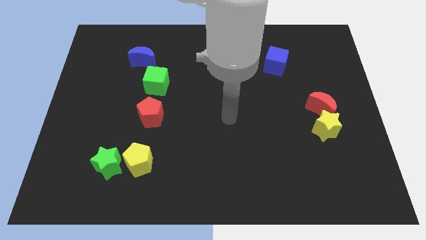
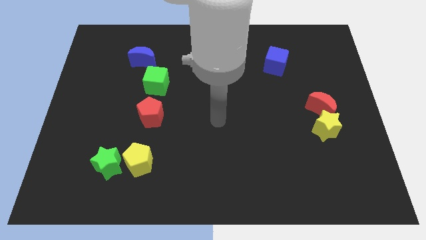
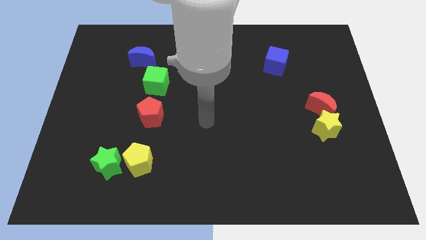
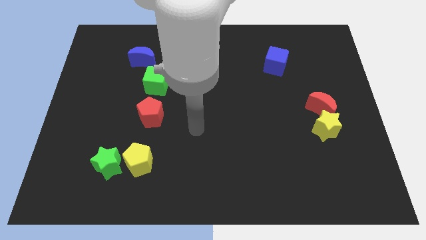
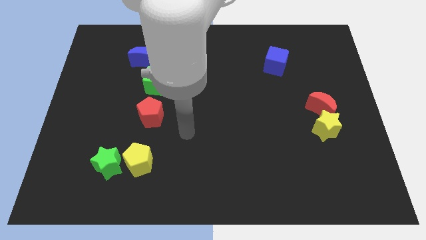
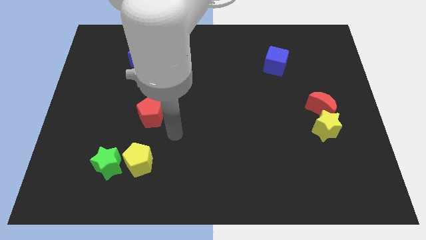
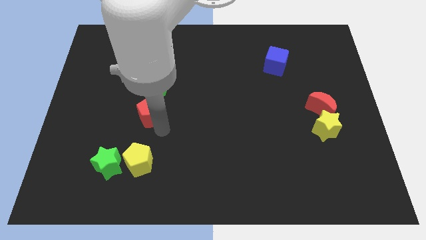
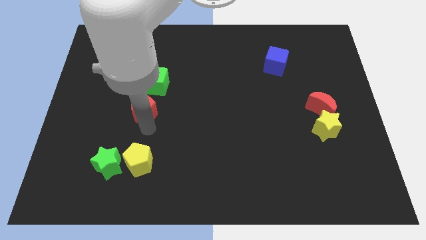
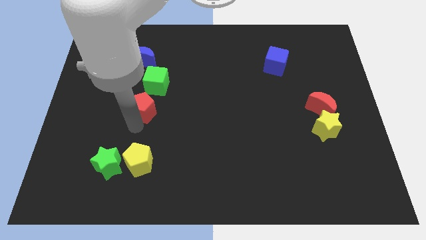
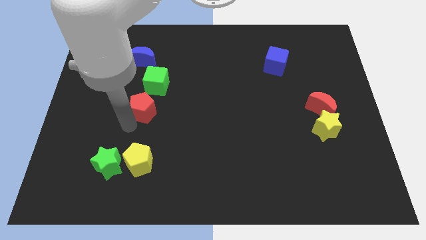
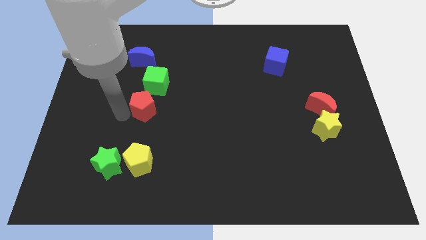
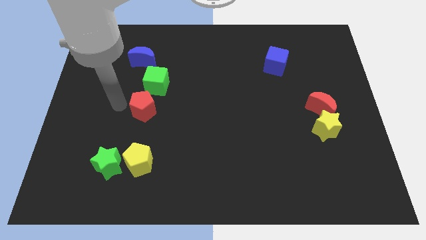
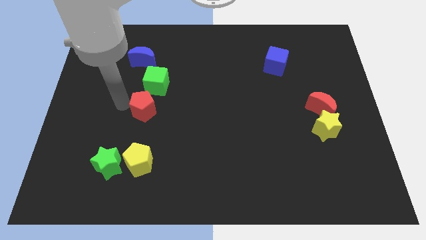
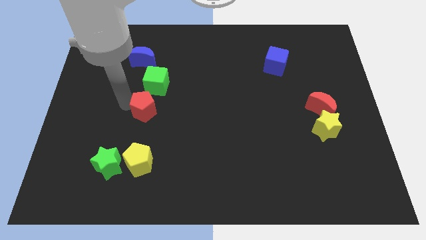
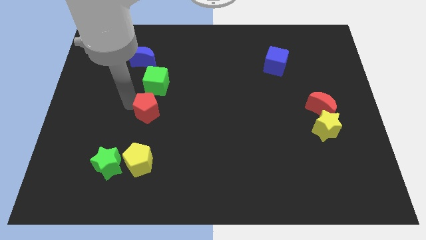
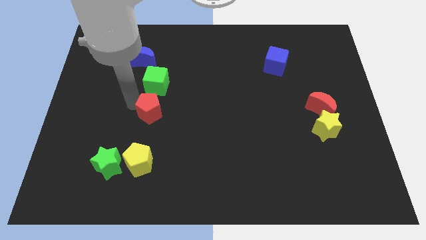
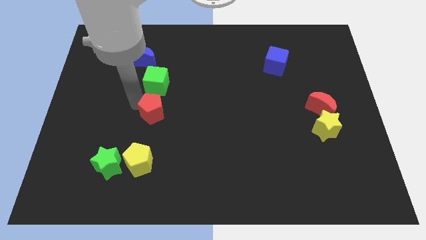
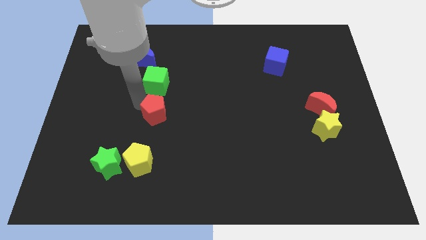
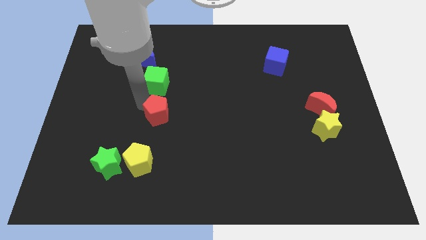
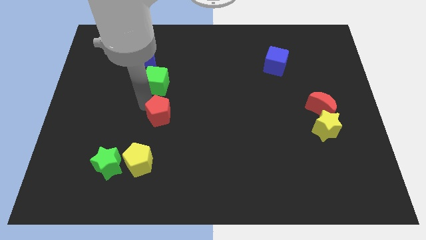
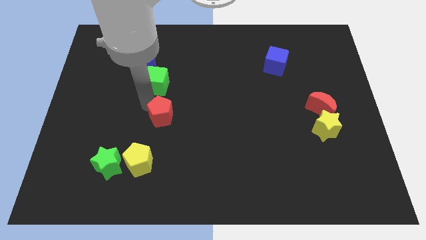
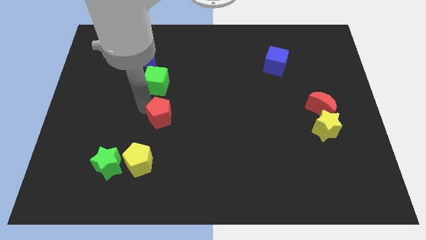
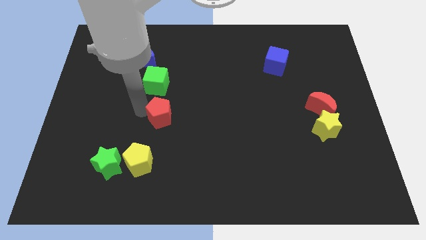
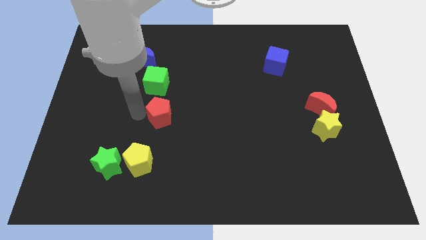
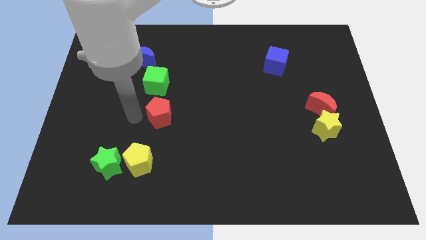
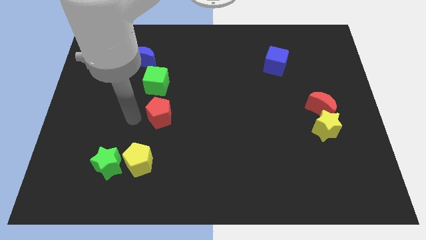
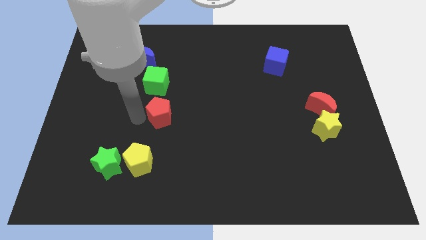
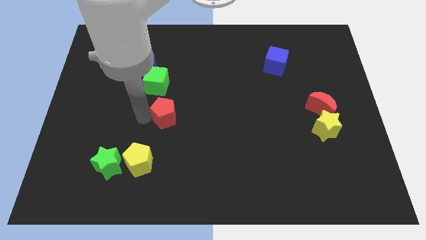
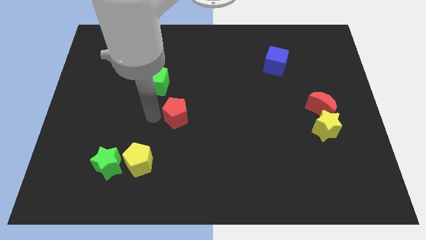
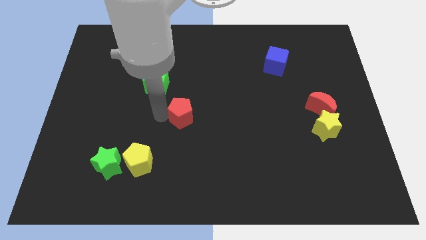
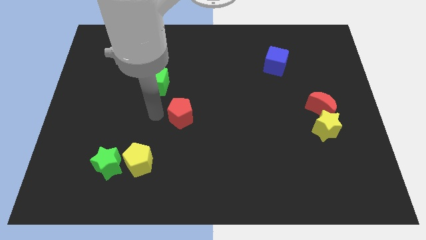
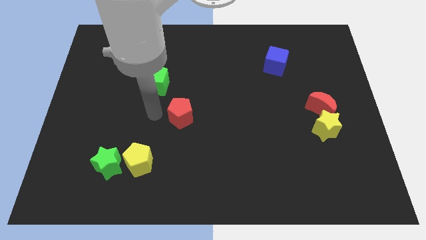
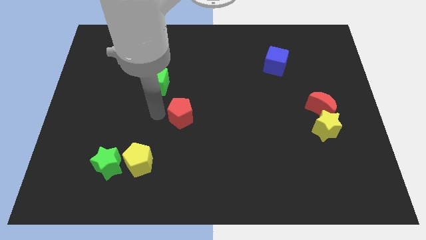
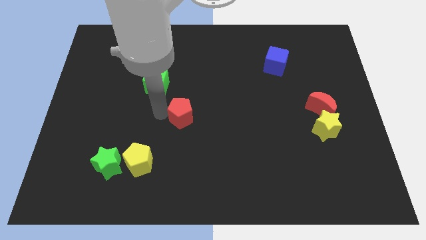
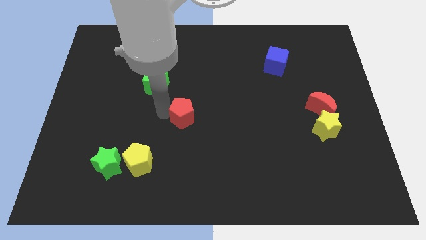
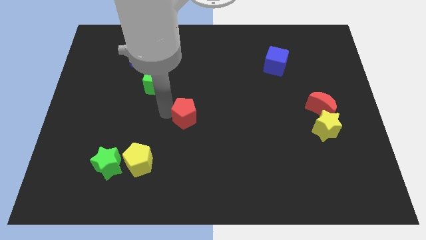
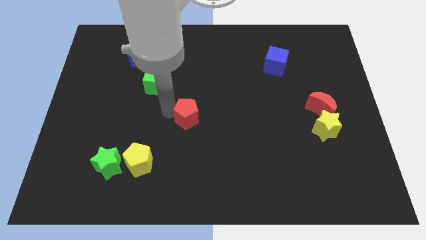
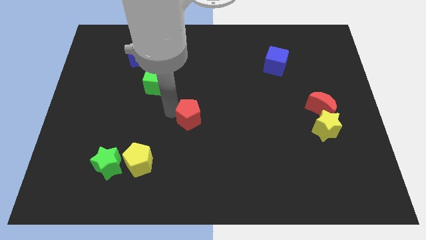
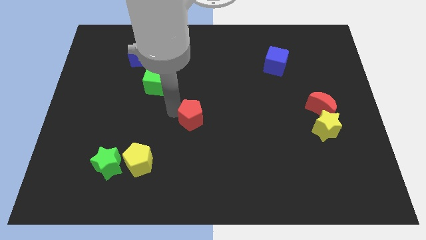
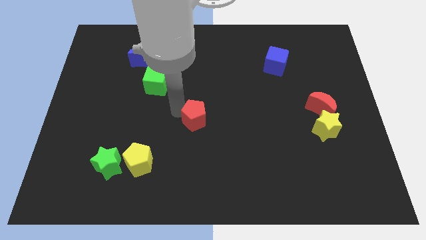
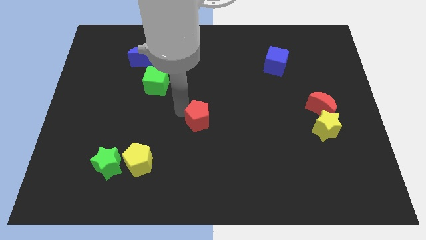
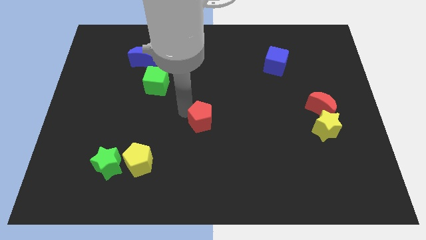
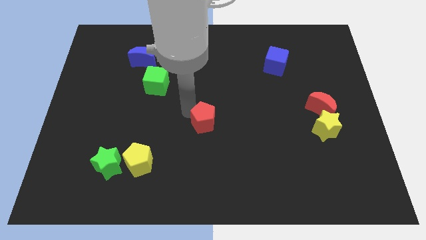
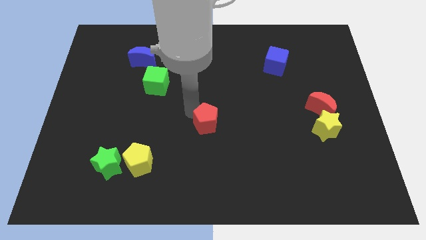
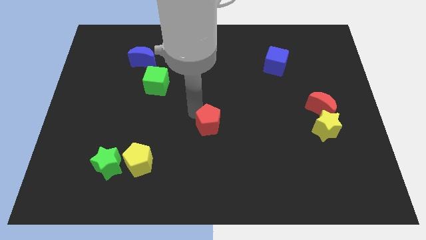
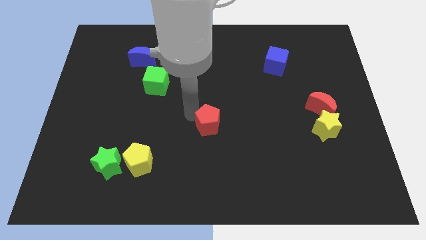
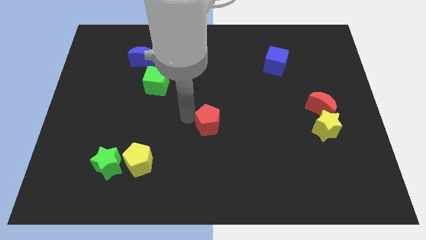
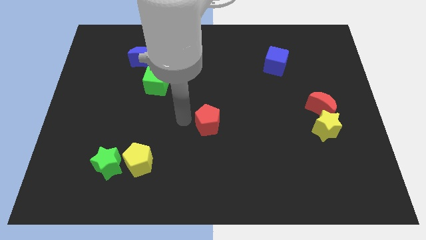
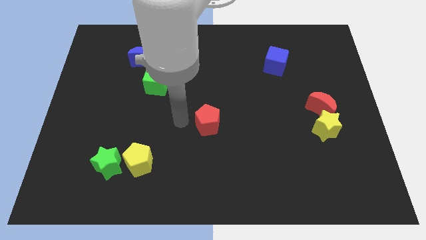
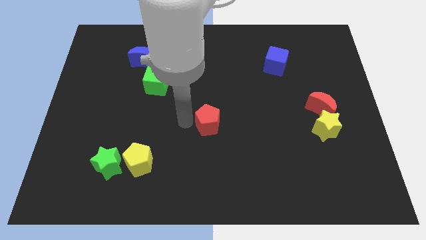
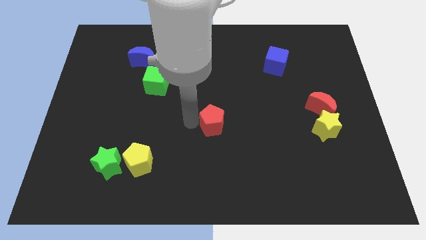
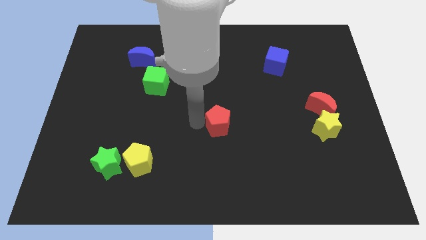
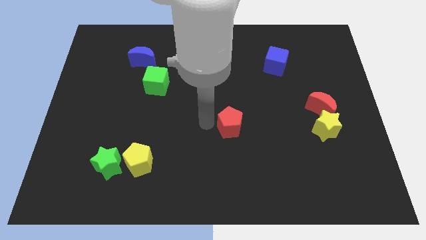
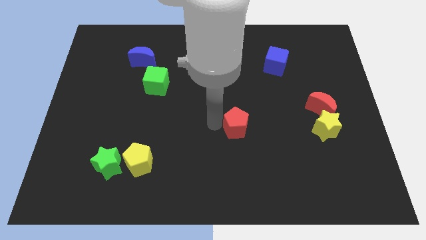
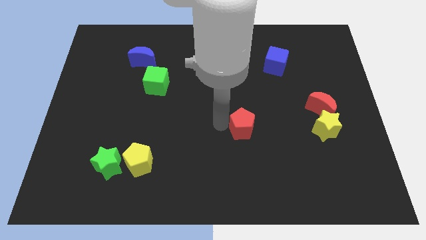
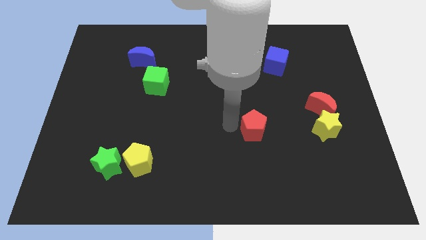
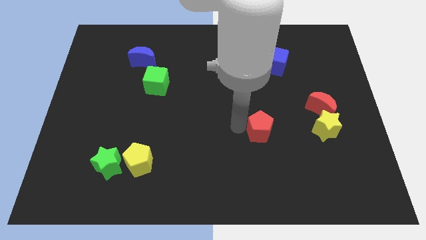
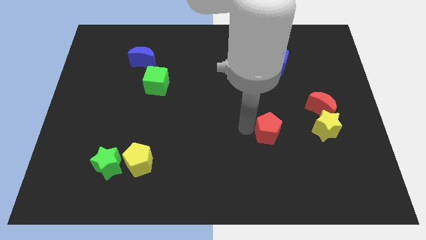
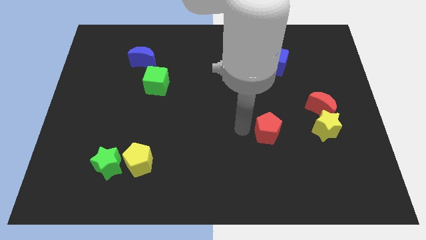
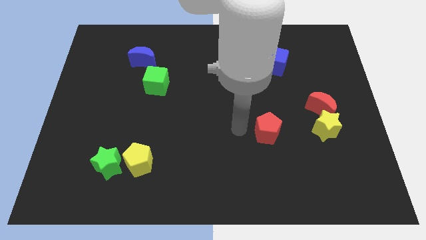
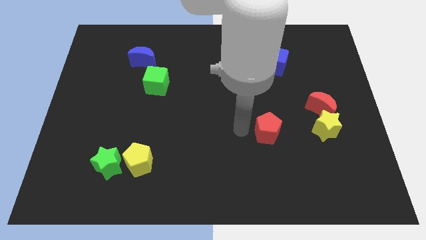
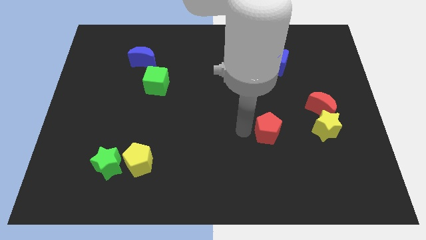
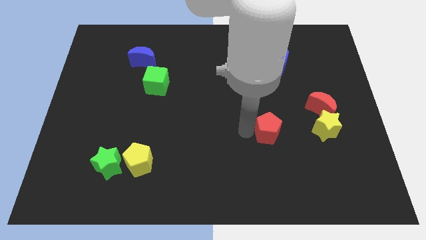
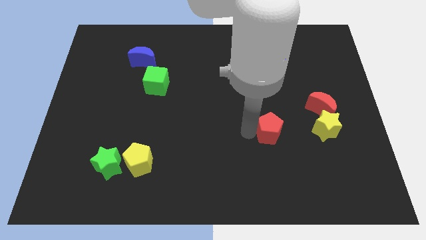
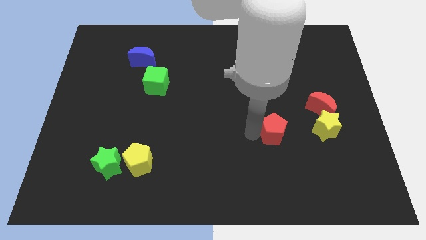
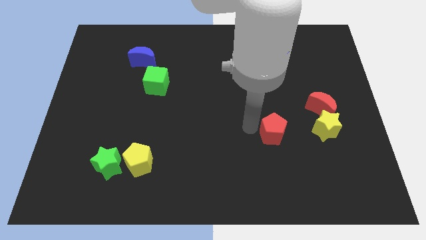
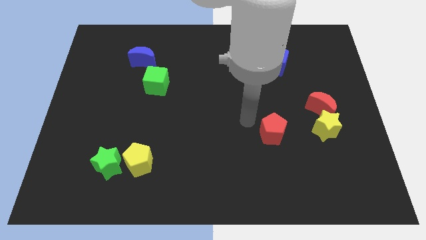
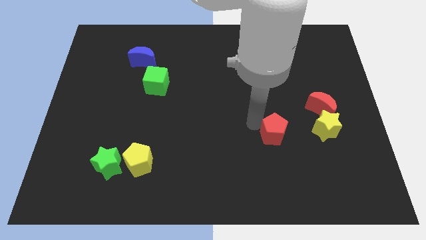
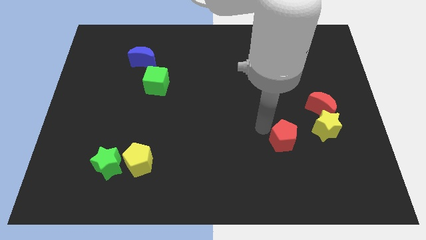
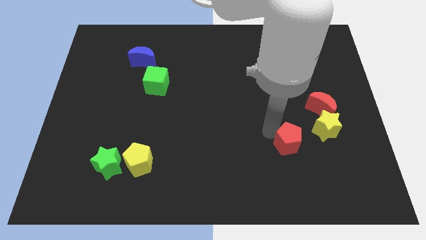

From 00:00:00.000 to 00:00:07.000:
push the red pentagon to the bottom left of the yellow star

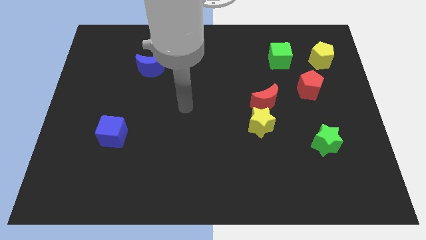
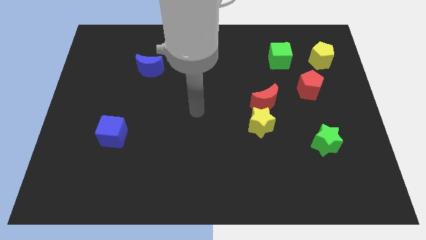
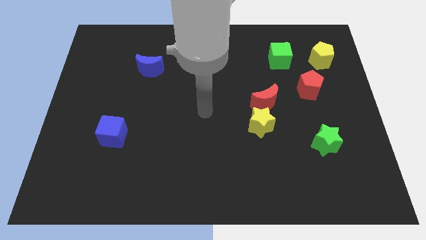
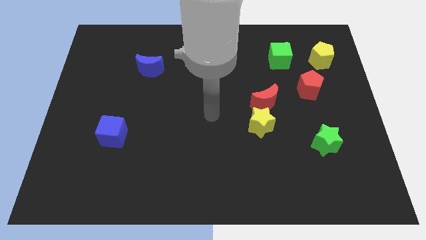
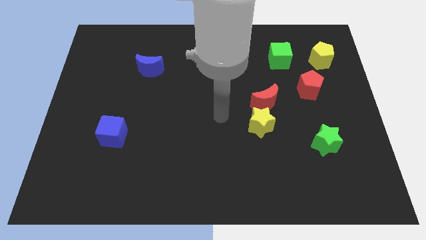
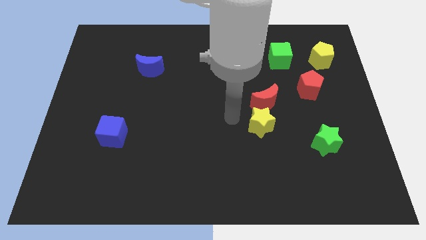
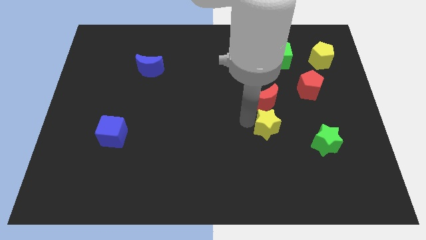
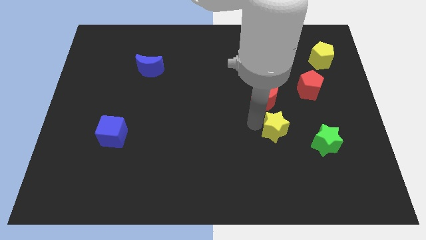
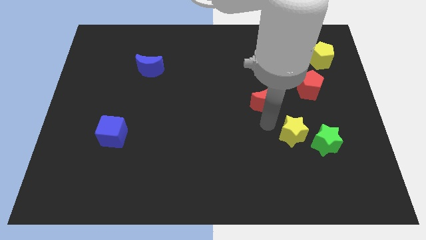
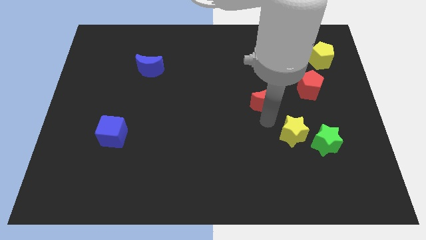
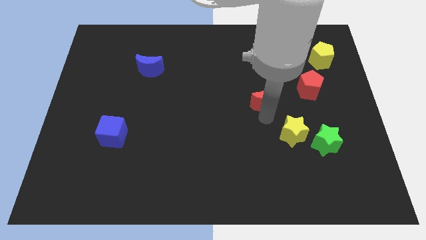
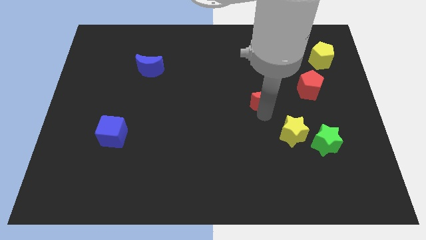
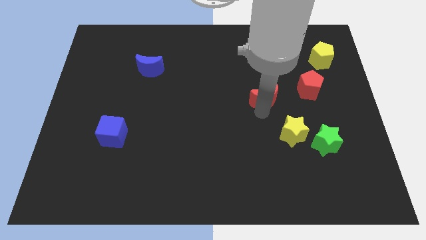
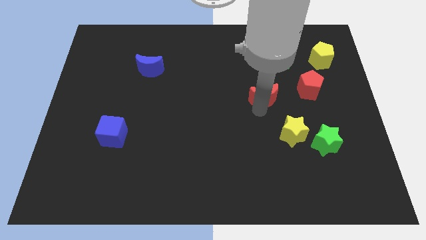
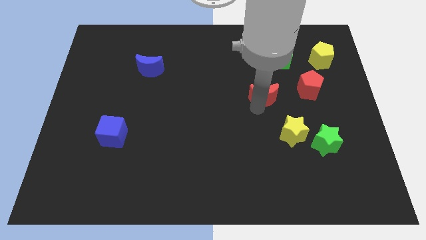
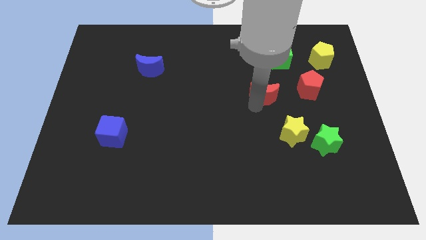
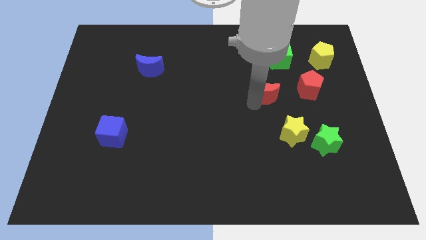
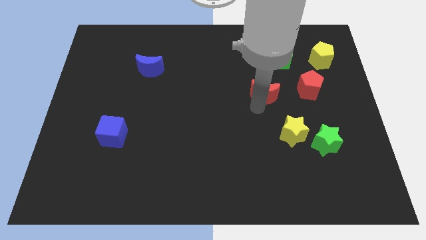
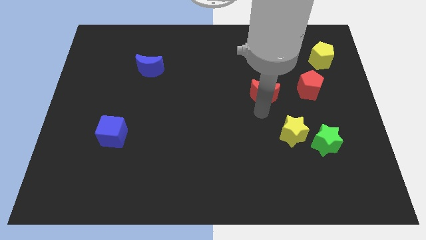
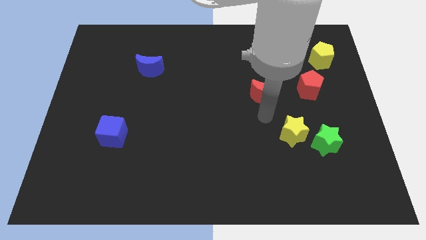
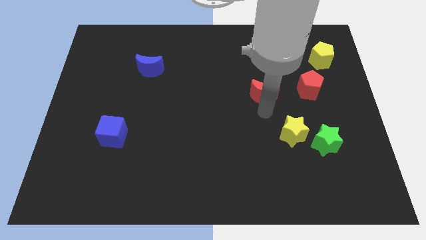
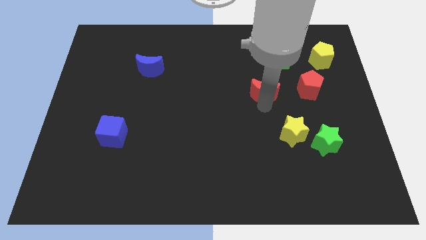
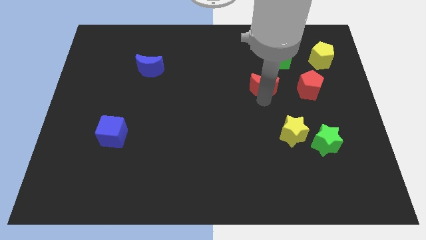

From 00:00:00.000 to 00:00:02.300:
push the red moon to the bottom left of the green cube
